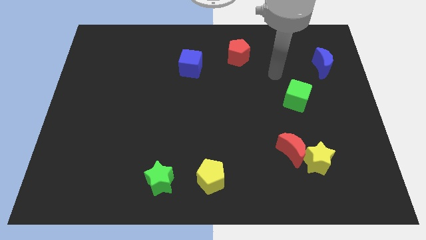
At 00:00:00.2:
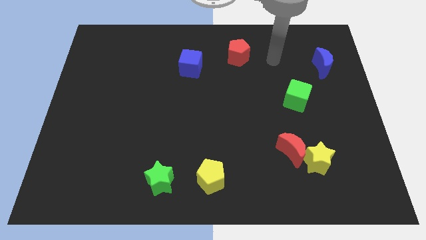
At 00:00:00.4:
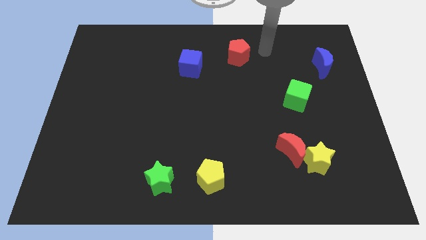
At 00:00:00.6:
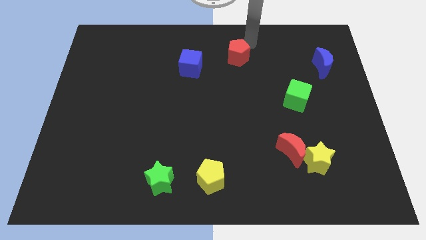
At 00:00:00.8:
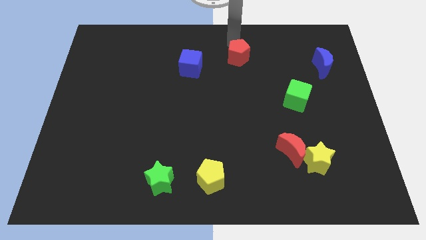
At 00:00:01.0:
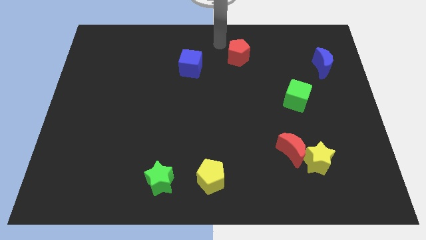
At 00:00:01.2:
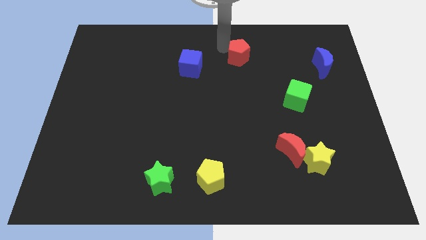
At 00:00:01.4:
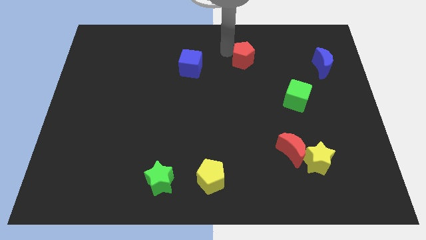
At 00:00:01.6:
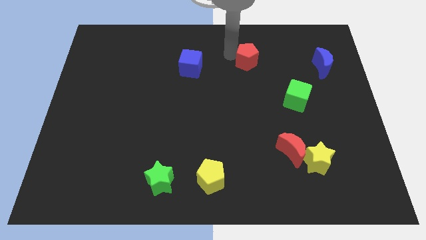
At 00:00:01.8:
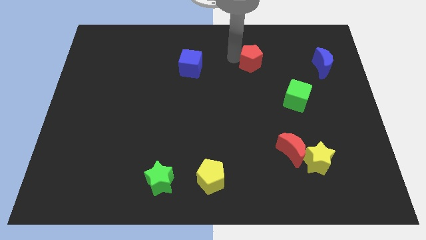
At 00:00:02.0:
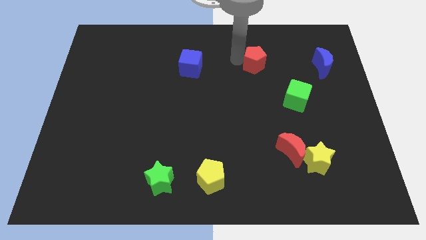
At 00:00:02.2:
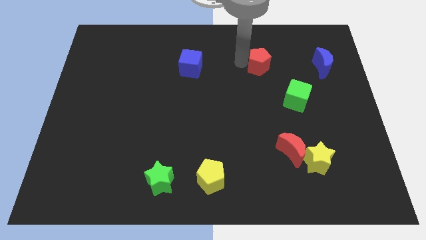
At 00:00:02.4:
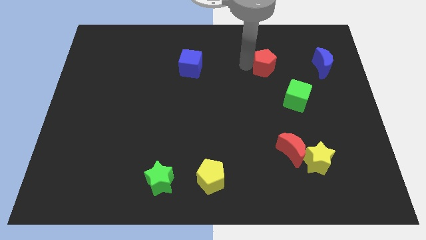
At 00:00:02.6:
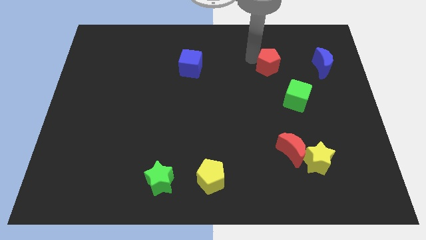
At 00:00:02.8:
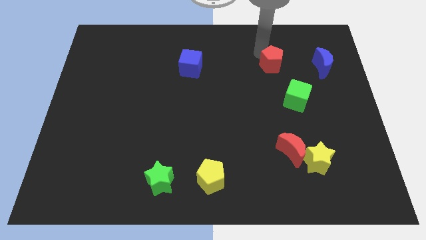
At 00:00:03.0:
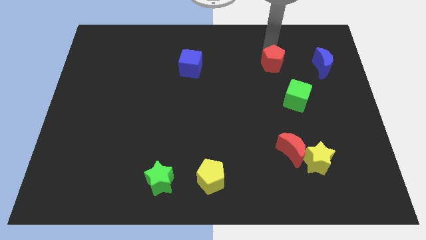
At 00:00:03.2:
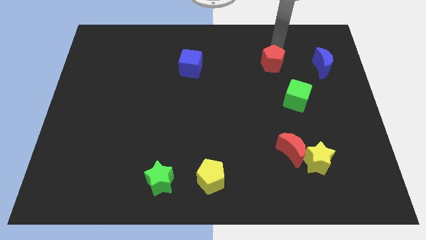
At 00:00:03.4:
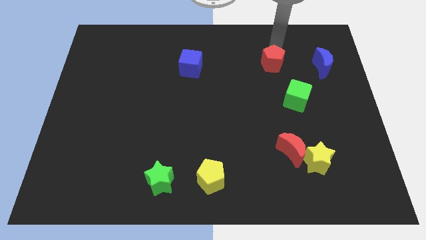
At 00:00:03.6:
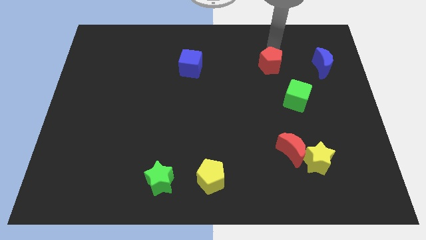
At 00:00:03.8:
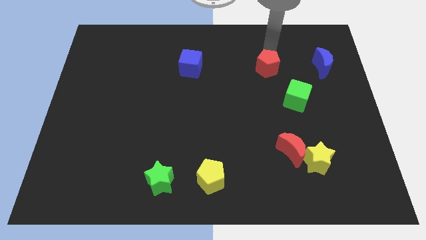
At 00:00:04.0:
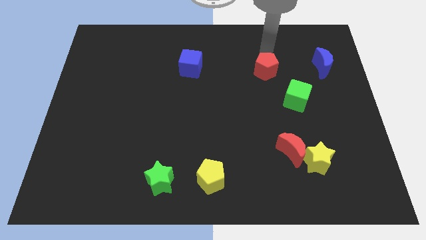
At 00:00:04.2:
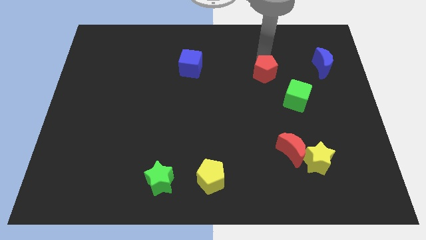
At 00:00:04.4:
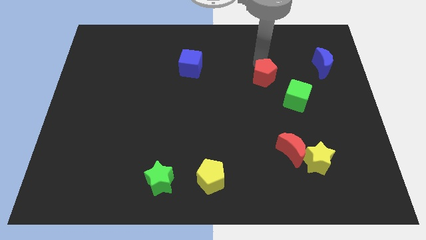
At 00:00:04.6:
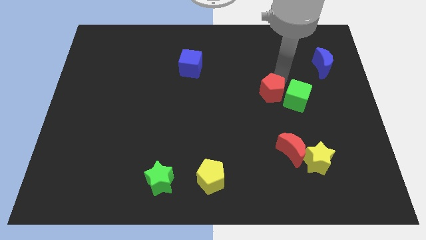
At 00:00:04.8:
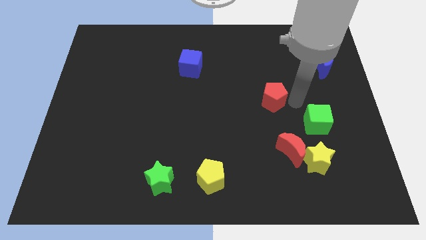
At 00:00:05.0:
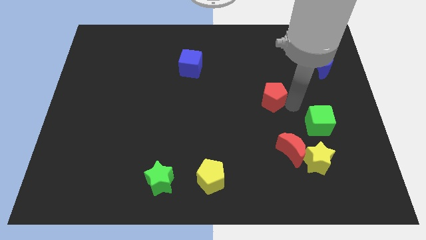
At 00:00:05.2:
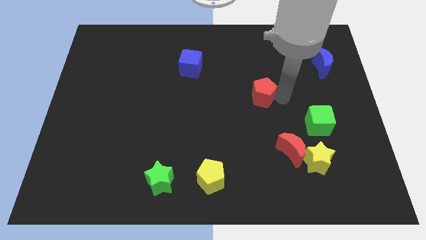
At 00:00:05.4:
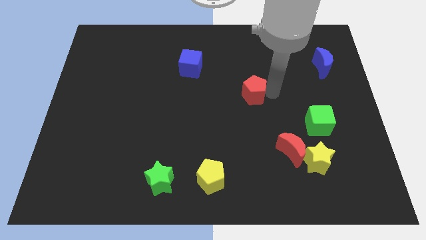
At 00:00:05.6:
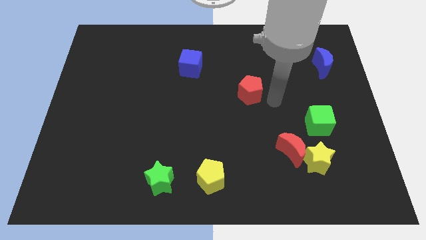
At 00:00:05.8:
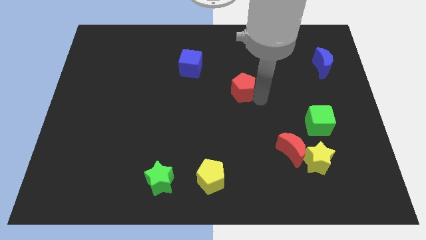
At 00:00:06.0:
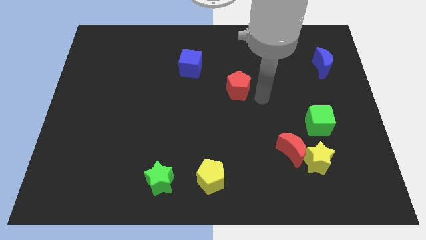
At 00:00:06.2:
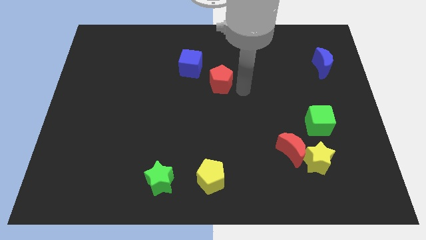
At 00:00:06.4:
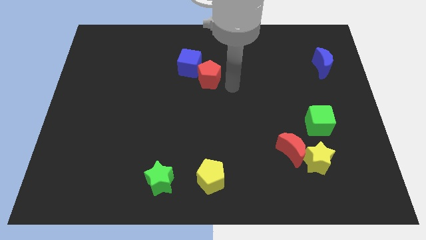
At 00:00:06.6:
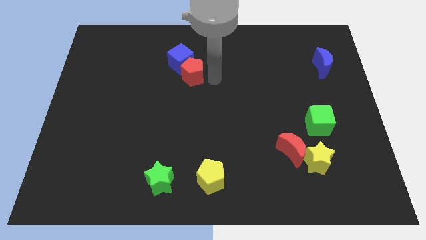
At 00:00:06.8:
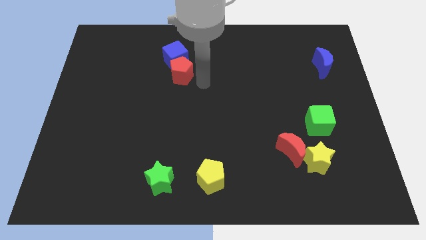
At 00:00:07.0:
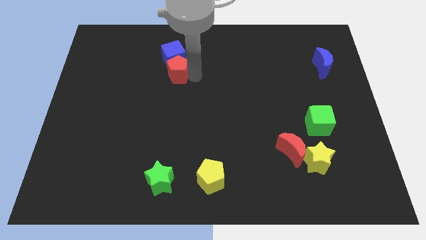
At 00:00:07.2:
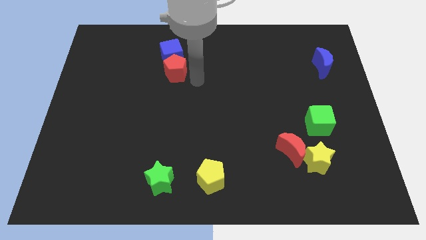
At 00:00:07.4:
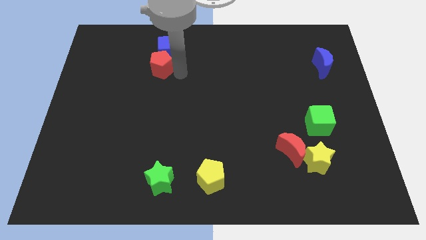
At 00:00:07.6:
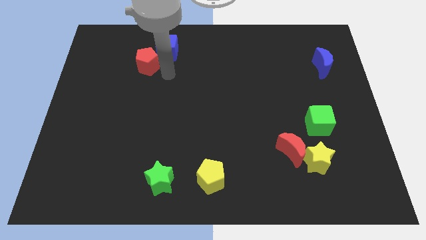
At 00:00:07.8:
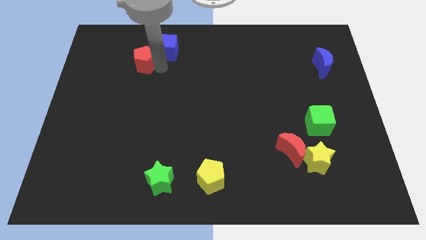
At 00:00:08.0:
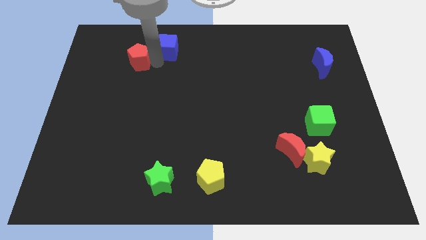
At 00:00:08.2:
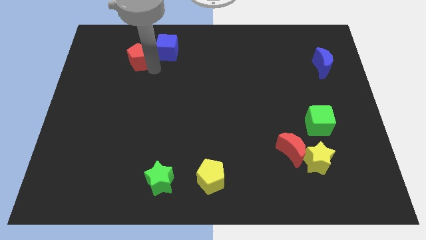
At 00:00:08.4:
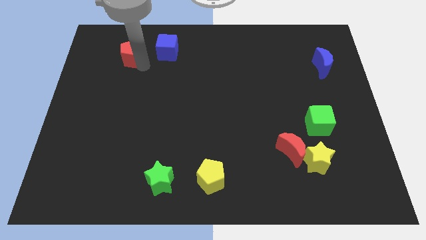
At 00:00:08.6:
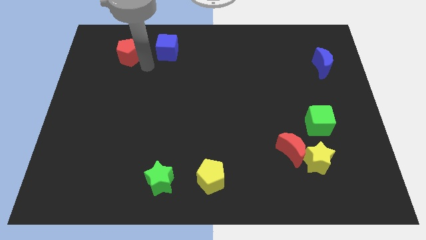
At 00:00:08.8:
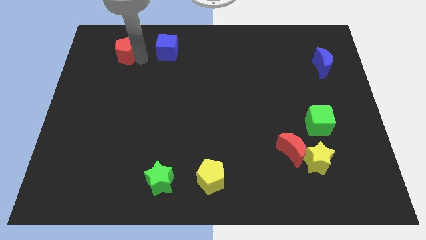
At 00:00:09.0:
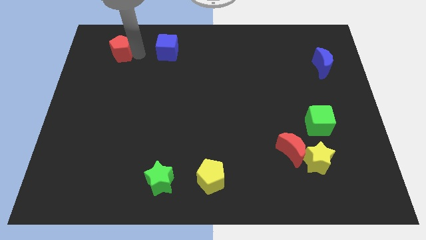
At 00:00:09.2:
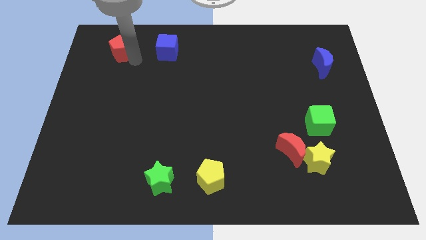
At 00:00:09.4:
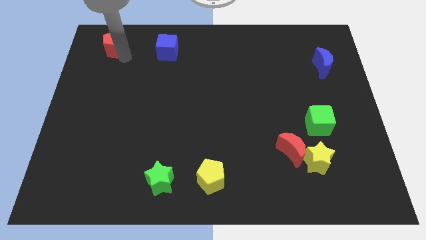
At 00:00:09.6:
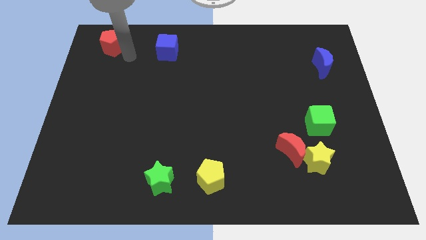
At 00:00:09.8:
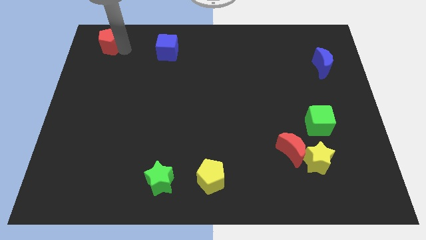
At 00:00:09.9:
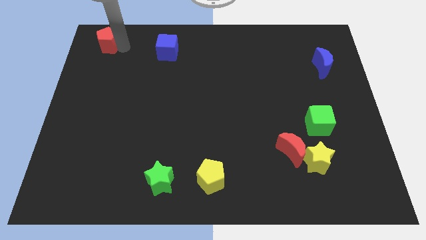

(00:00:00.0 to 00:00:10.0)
move the red pentagon to the top left of the board

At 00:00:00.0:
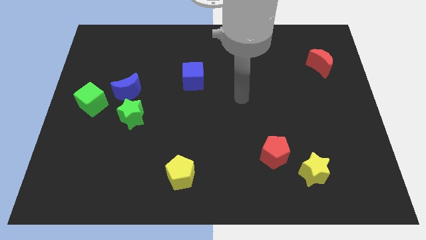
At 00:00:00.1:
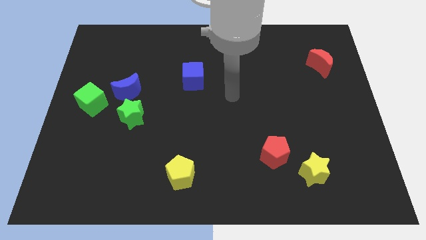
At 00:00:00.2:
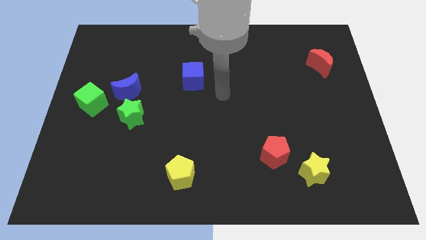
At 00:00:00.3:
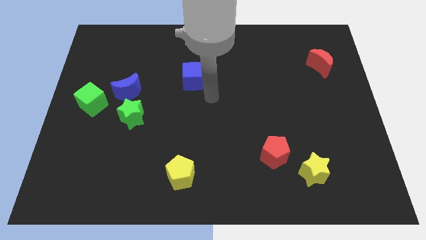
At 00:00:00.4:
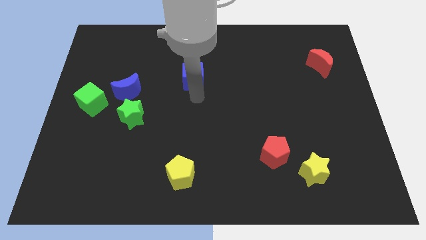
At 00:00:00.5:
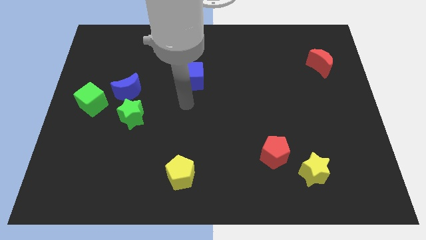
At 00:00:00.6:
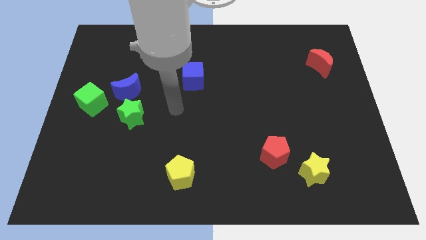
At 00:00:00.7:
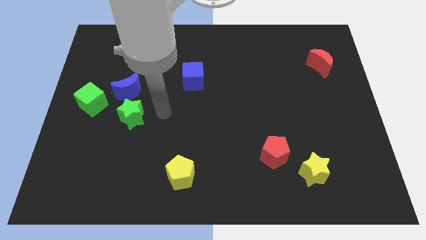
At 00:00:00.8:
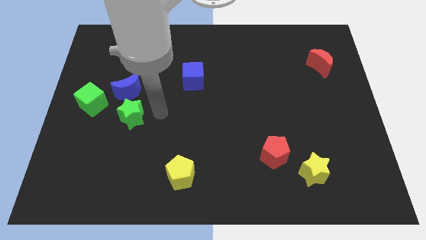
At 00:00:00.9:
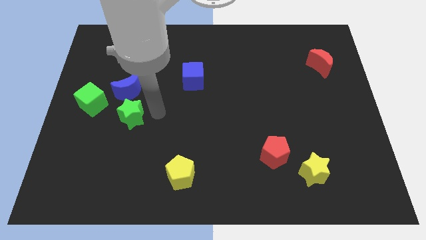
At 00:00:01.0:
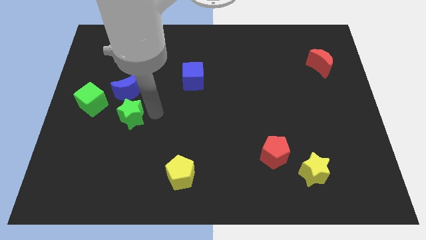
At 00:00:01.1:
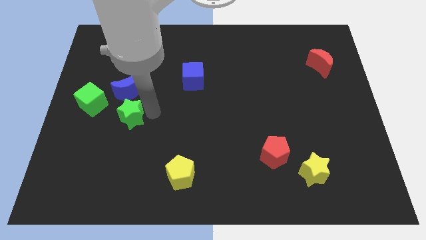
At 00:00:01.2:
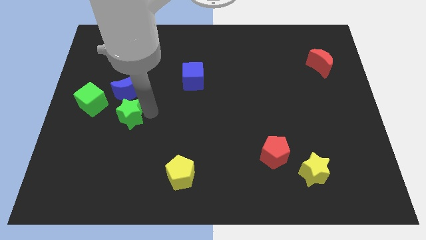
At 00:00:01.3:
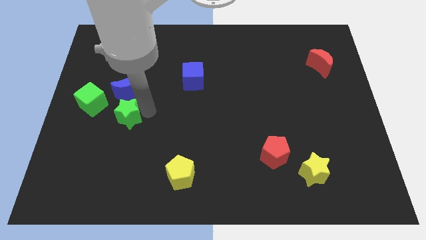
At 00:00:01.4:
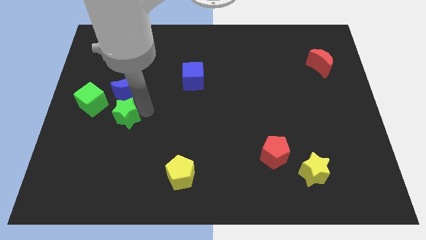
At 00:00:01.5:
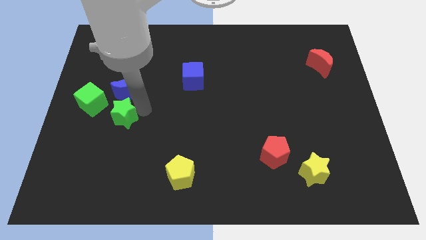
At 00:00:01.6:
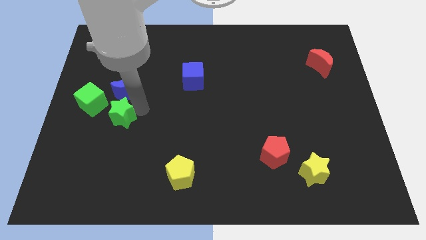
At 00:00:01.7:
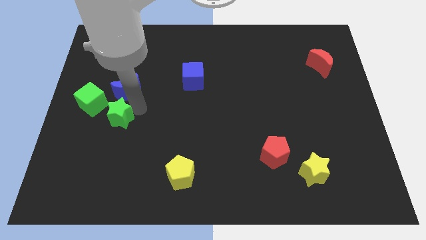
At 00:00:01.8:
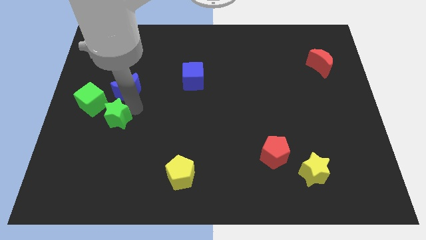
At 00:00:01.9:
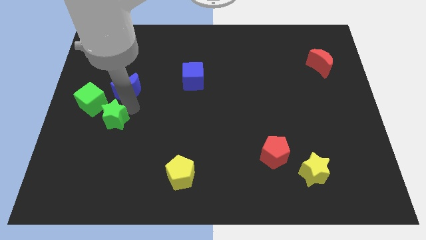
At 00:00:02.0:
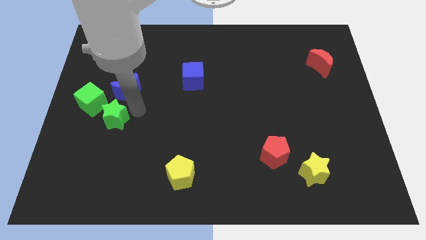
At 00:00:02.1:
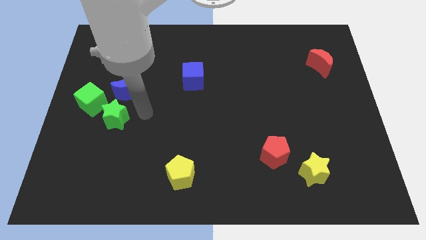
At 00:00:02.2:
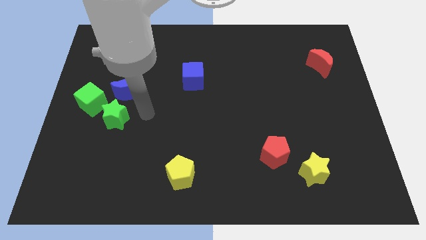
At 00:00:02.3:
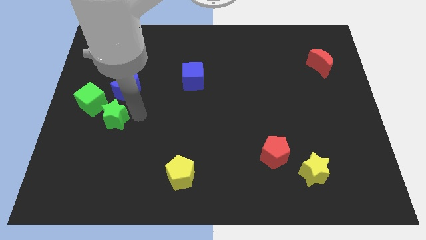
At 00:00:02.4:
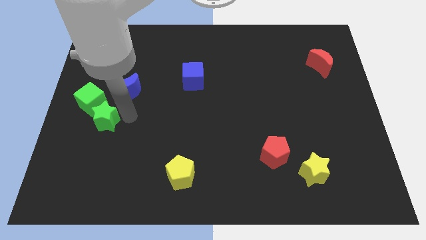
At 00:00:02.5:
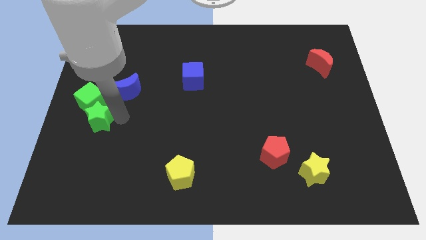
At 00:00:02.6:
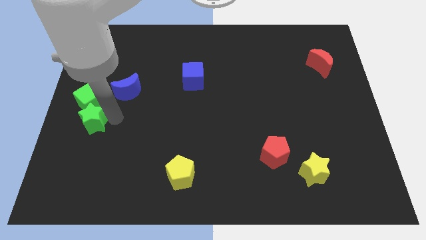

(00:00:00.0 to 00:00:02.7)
move the green star to the left side
